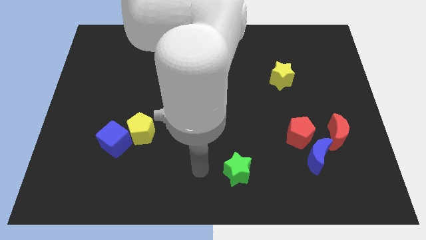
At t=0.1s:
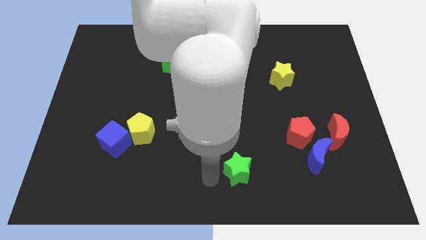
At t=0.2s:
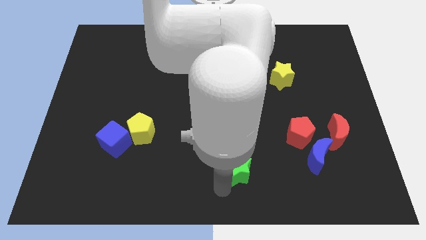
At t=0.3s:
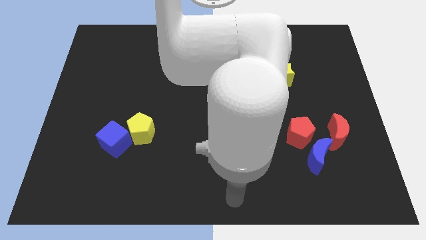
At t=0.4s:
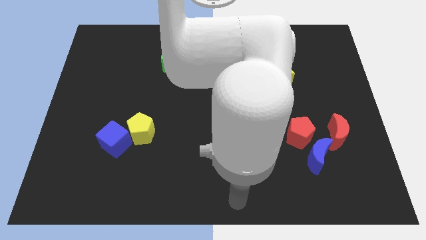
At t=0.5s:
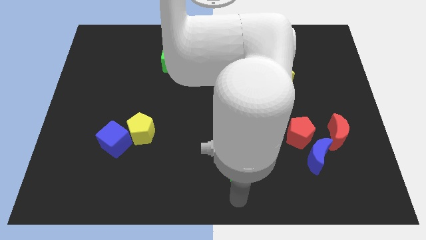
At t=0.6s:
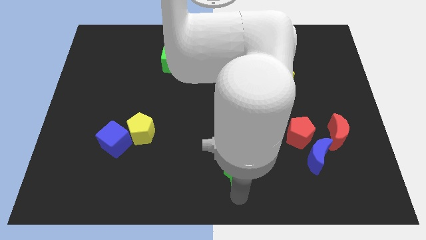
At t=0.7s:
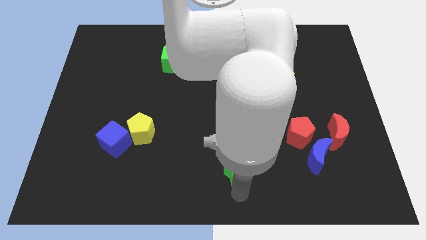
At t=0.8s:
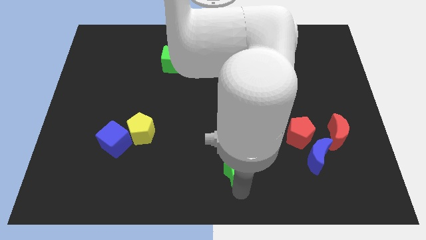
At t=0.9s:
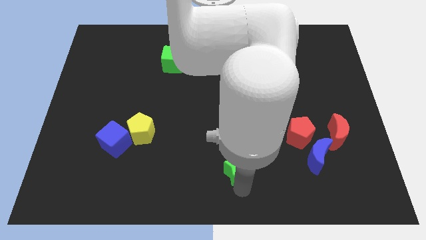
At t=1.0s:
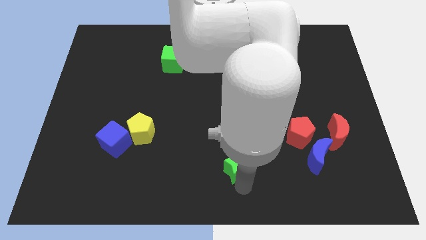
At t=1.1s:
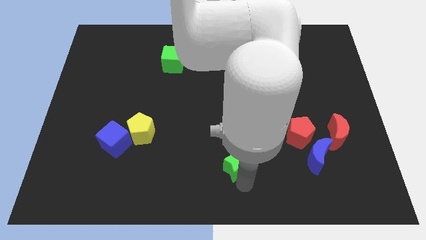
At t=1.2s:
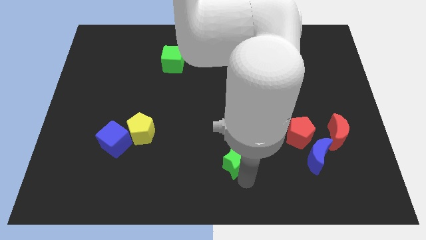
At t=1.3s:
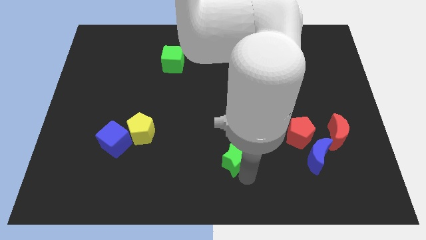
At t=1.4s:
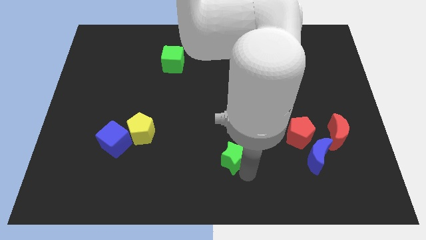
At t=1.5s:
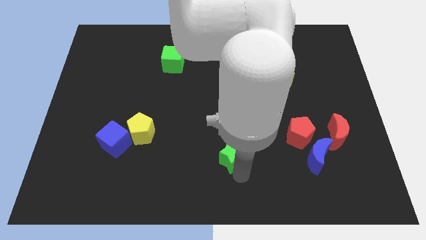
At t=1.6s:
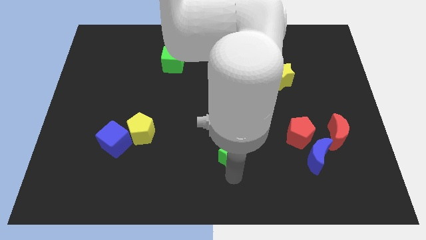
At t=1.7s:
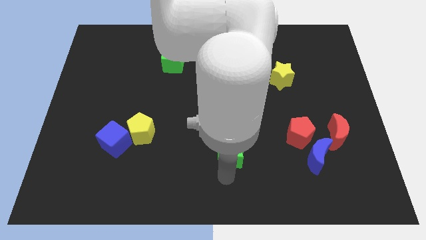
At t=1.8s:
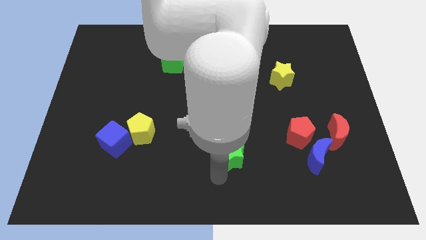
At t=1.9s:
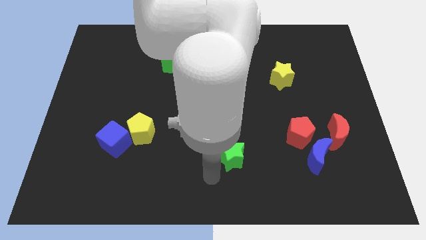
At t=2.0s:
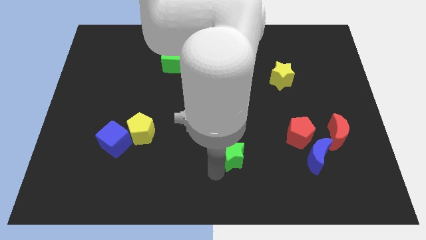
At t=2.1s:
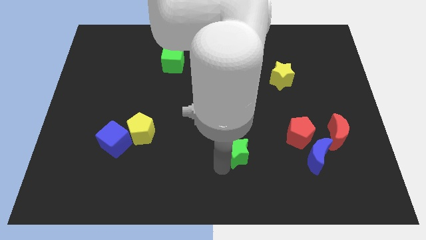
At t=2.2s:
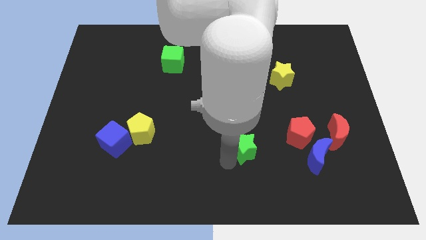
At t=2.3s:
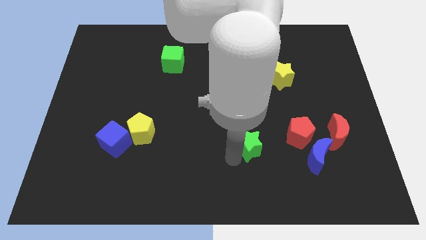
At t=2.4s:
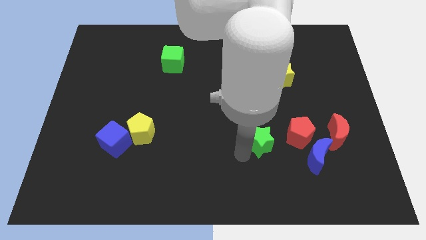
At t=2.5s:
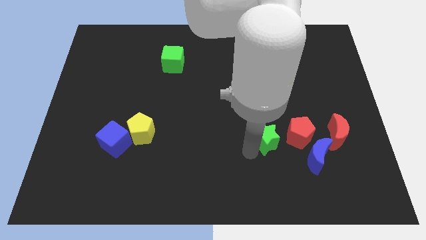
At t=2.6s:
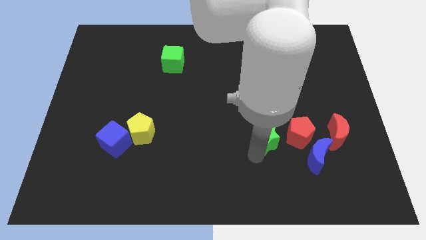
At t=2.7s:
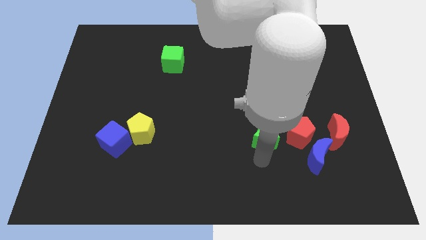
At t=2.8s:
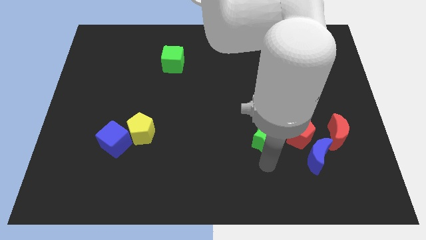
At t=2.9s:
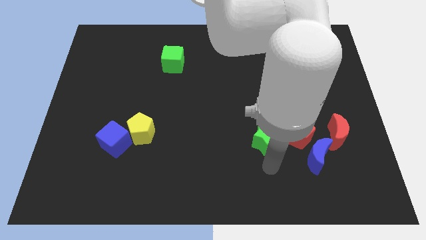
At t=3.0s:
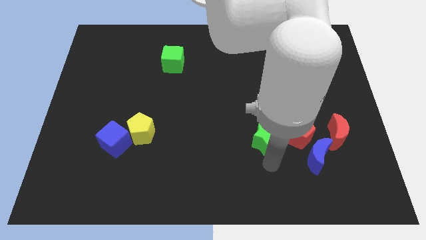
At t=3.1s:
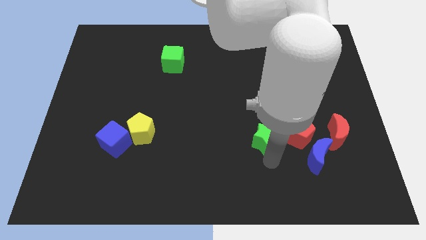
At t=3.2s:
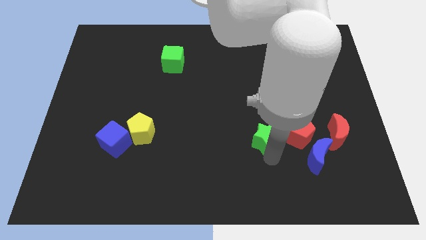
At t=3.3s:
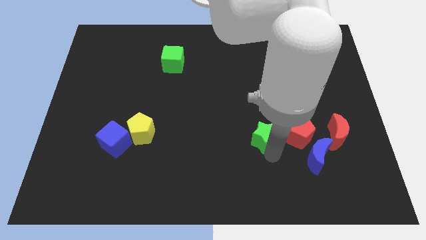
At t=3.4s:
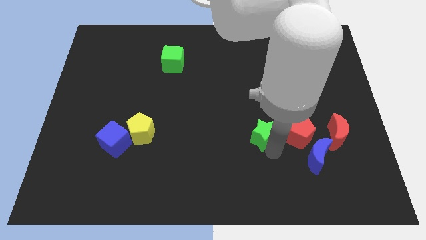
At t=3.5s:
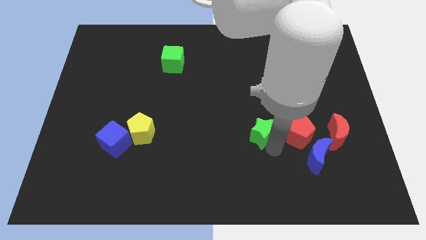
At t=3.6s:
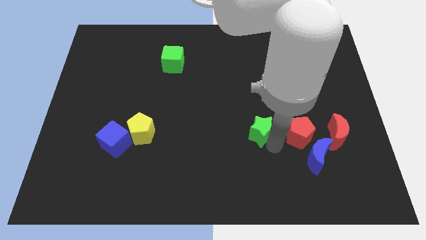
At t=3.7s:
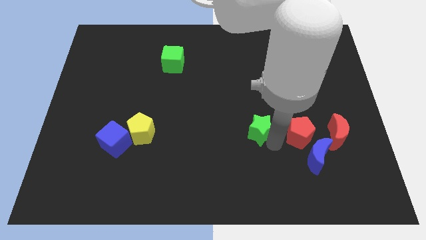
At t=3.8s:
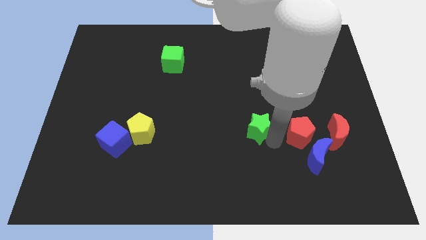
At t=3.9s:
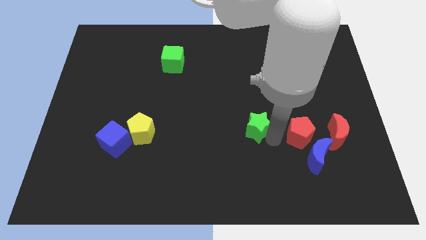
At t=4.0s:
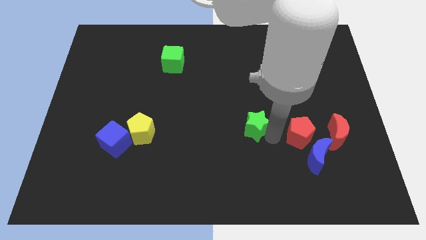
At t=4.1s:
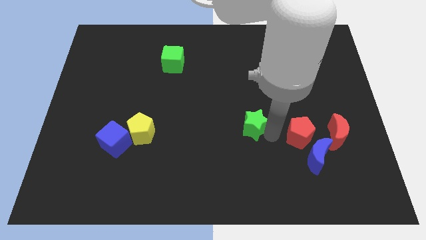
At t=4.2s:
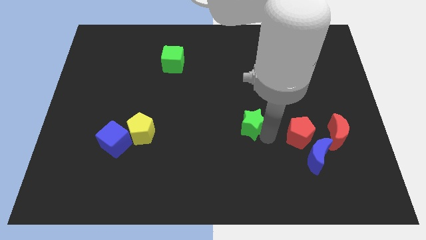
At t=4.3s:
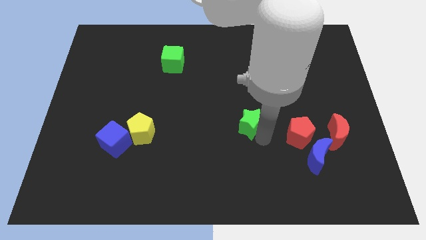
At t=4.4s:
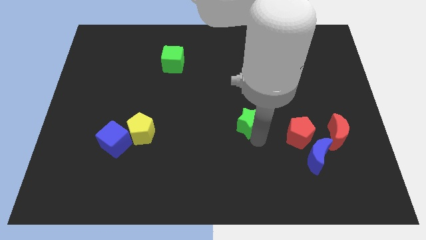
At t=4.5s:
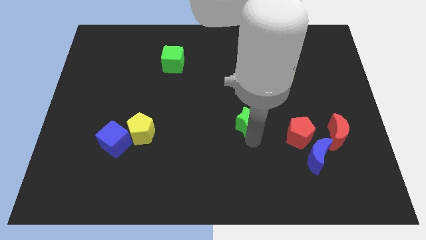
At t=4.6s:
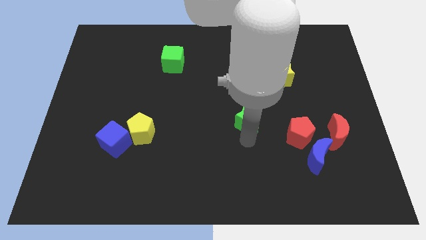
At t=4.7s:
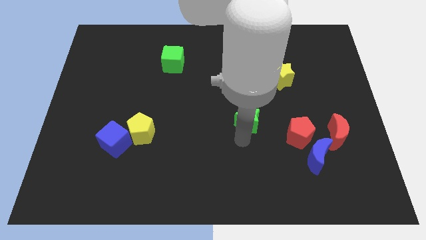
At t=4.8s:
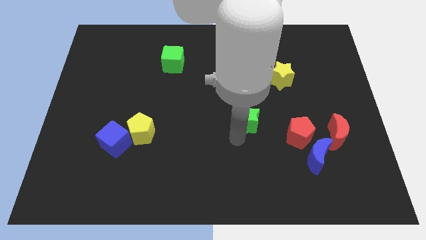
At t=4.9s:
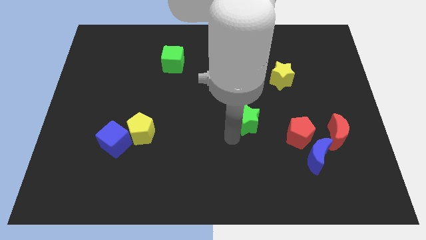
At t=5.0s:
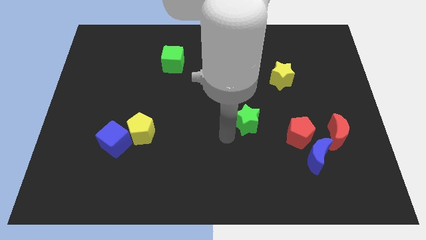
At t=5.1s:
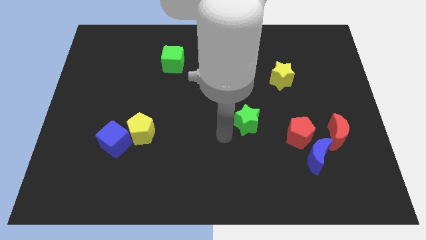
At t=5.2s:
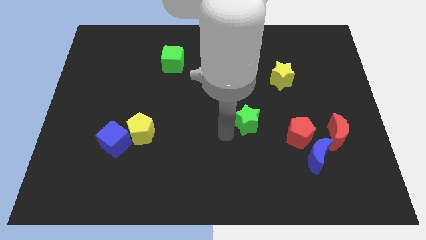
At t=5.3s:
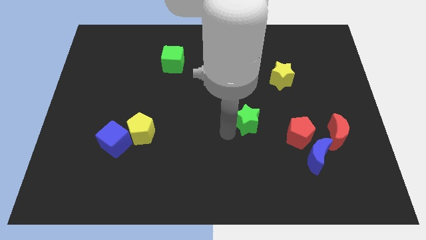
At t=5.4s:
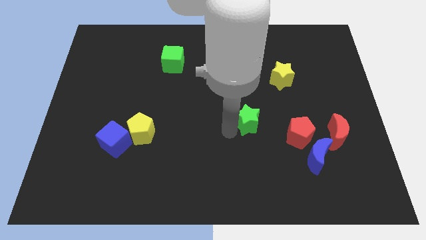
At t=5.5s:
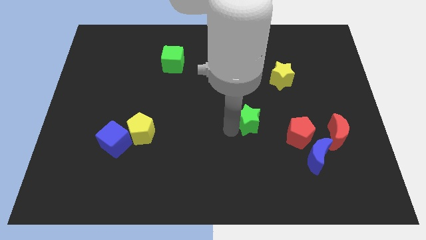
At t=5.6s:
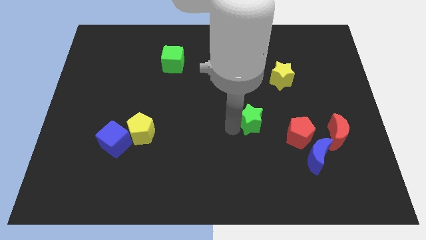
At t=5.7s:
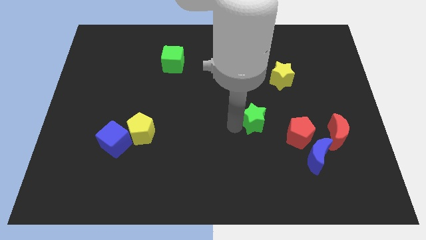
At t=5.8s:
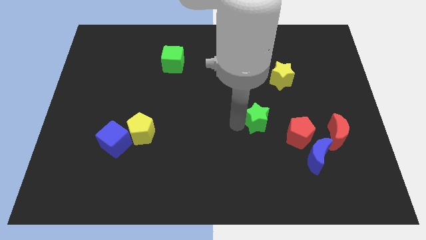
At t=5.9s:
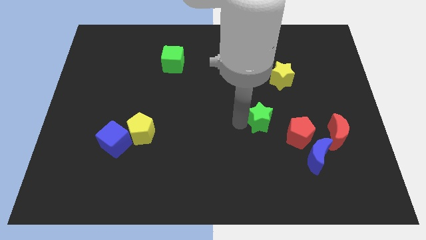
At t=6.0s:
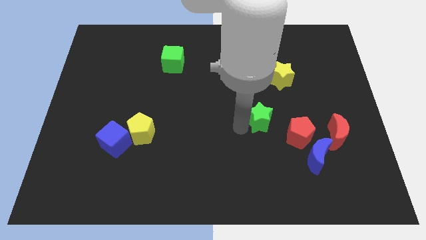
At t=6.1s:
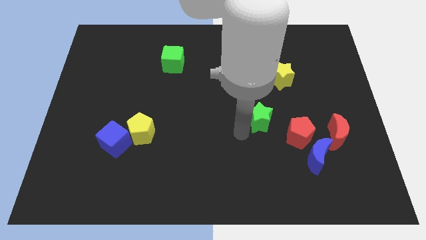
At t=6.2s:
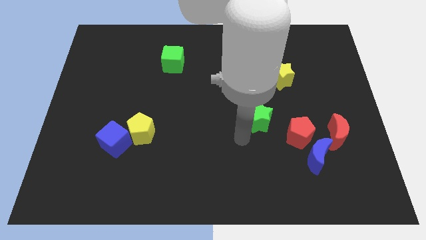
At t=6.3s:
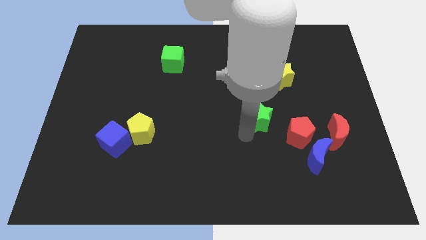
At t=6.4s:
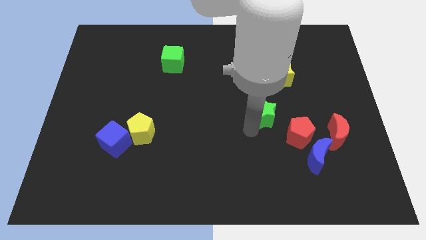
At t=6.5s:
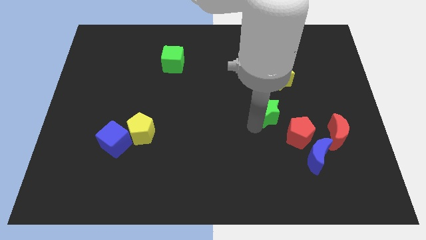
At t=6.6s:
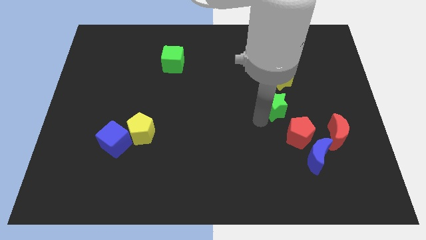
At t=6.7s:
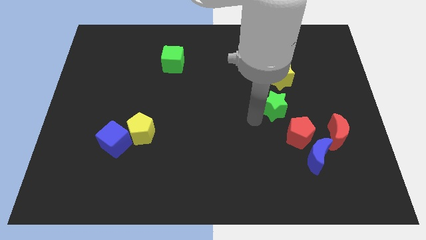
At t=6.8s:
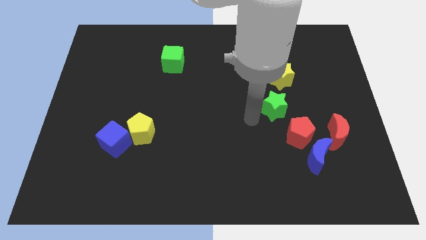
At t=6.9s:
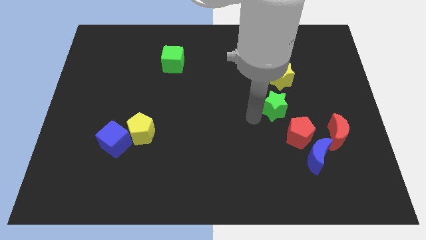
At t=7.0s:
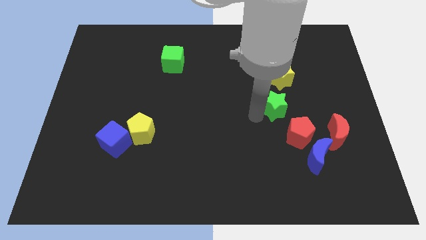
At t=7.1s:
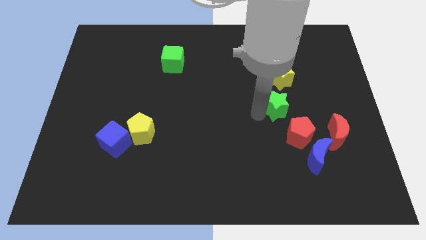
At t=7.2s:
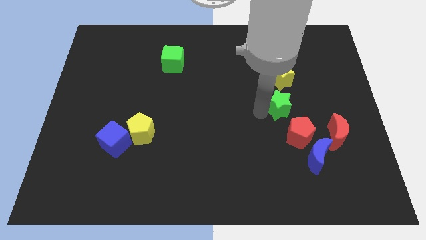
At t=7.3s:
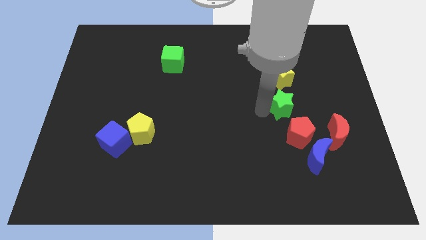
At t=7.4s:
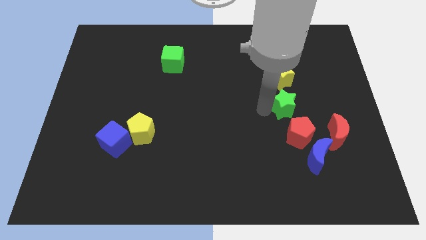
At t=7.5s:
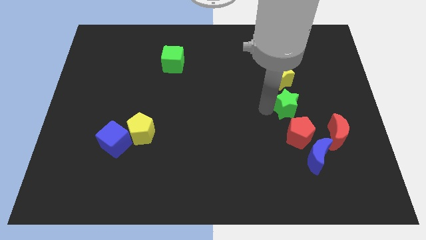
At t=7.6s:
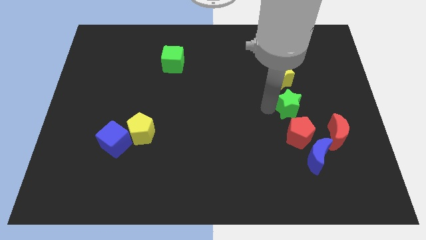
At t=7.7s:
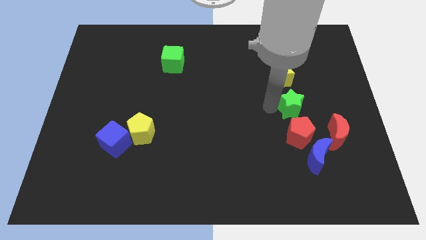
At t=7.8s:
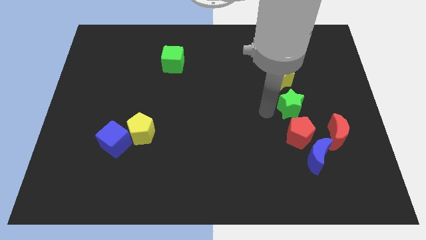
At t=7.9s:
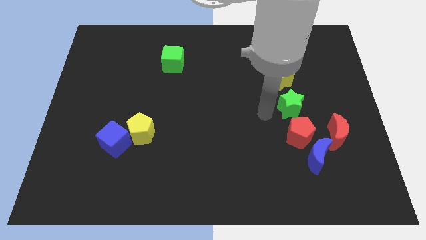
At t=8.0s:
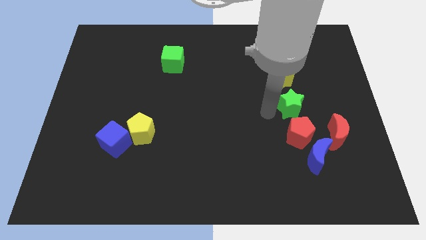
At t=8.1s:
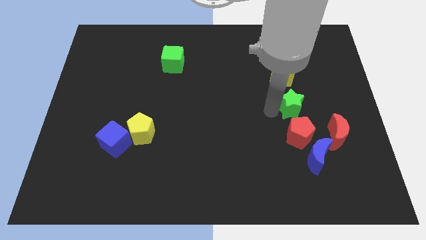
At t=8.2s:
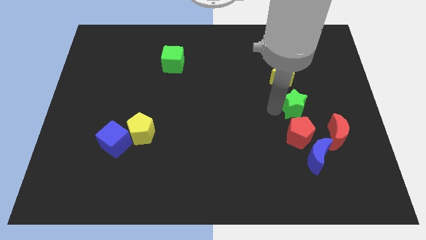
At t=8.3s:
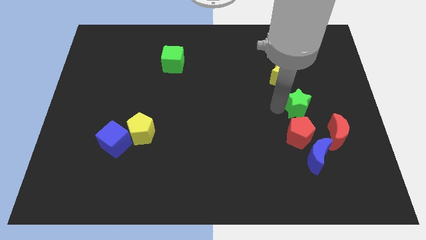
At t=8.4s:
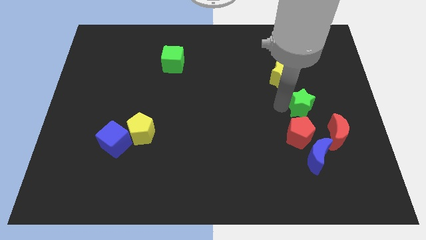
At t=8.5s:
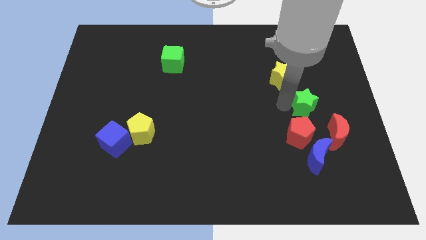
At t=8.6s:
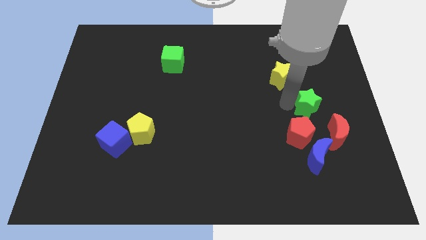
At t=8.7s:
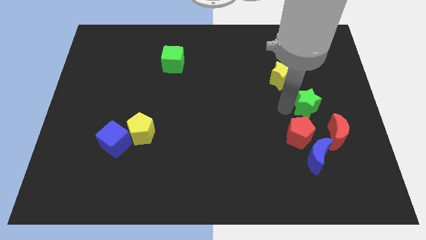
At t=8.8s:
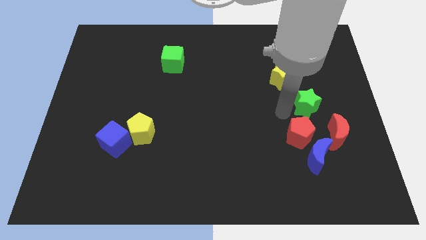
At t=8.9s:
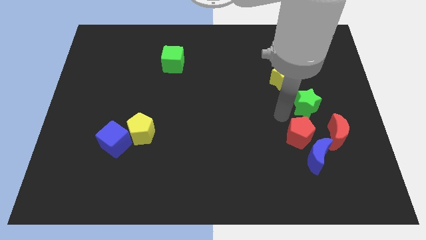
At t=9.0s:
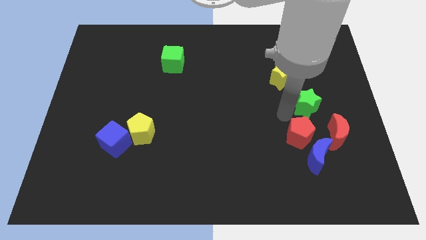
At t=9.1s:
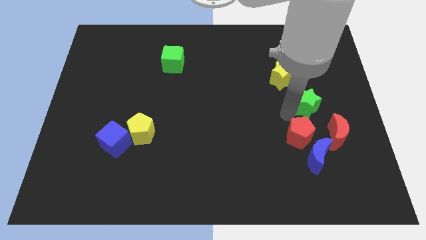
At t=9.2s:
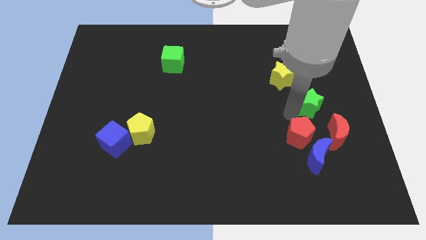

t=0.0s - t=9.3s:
push the green star above the red moon
